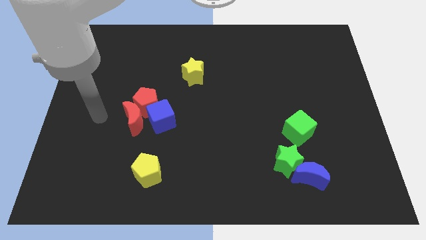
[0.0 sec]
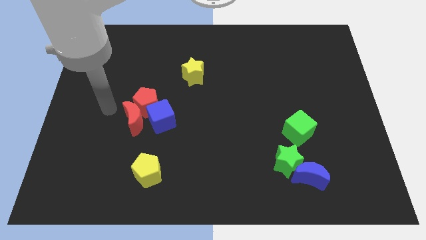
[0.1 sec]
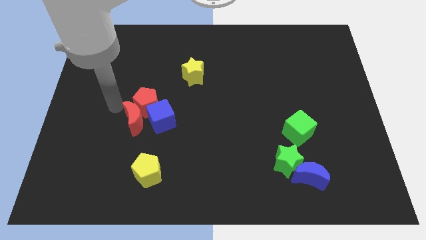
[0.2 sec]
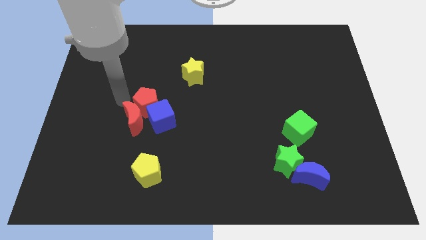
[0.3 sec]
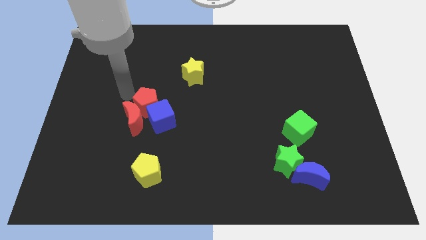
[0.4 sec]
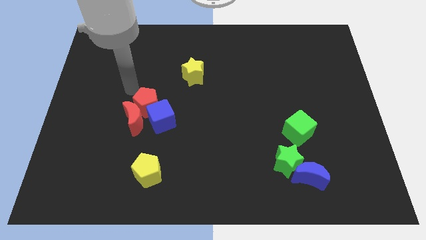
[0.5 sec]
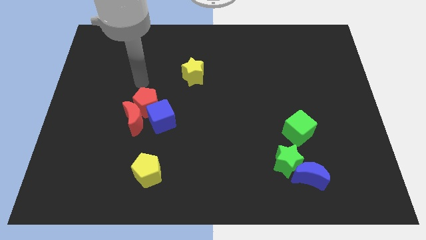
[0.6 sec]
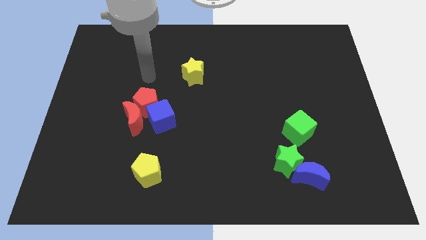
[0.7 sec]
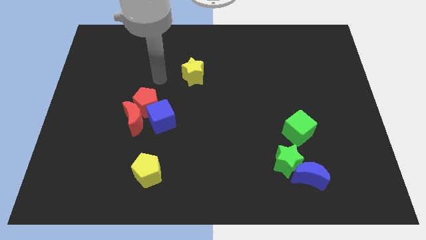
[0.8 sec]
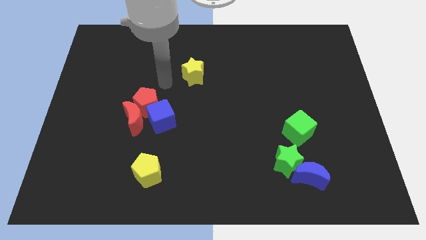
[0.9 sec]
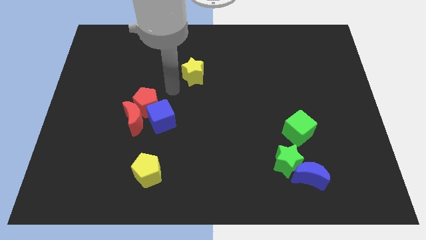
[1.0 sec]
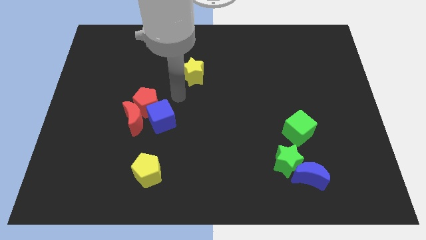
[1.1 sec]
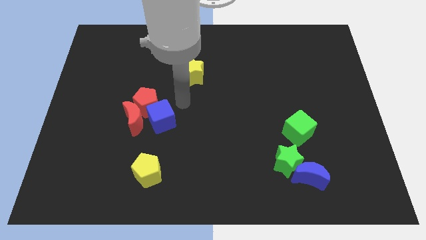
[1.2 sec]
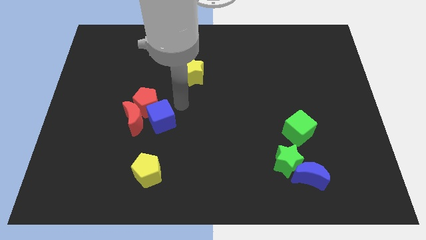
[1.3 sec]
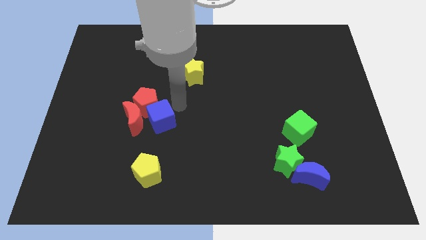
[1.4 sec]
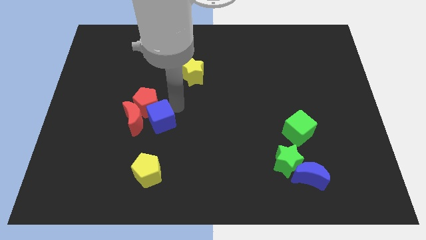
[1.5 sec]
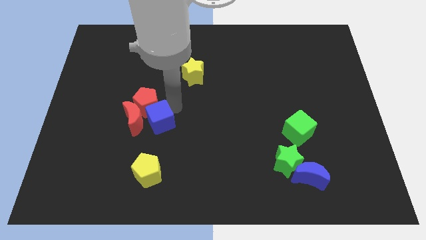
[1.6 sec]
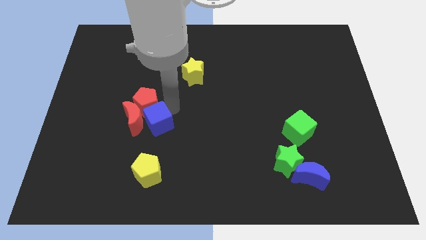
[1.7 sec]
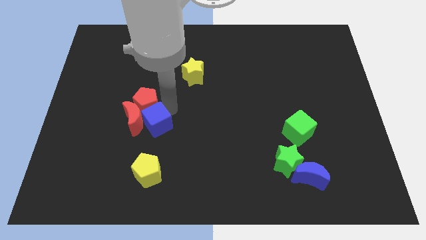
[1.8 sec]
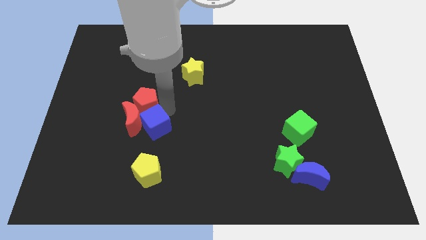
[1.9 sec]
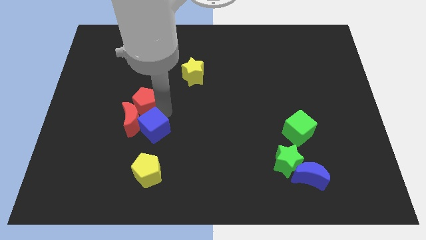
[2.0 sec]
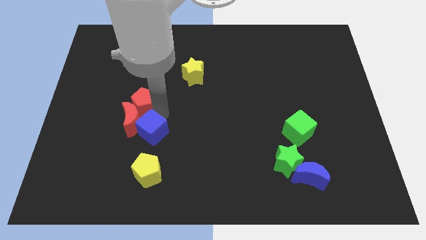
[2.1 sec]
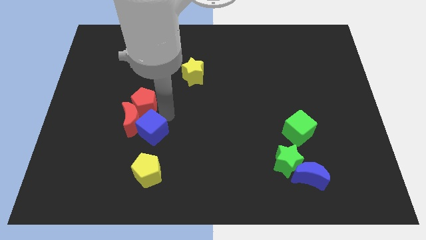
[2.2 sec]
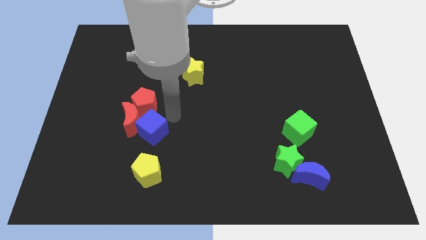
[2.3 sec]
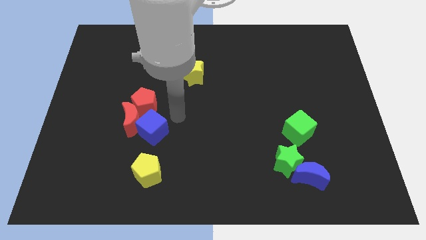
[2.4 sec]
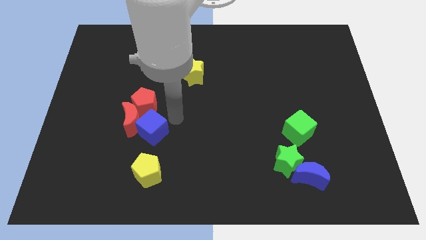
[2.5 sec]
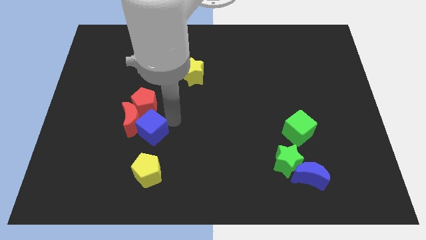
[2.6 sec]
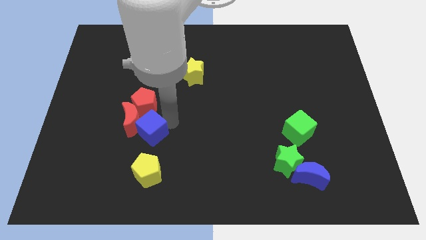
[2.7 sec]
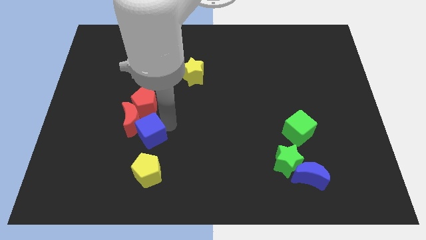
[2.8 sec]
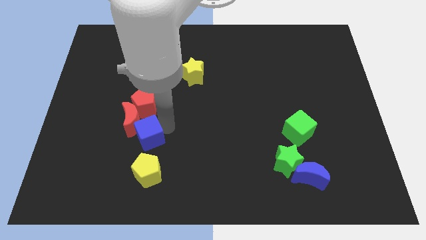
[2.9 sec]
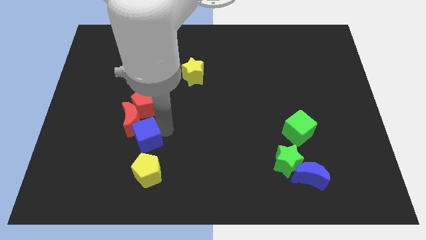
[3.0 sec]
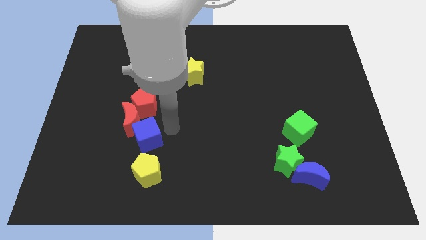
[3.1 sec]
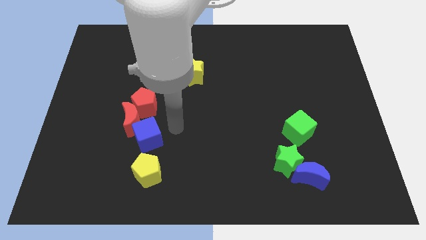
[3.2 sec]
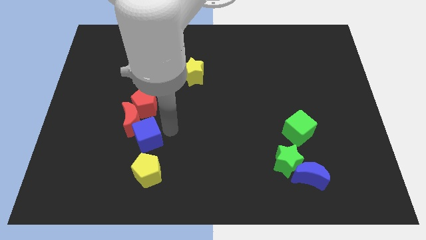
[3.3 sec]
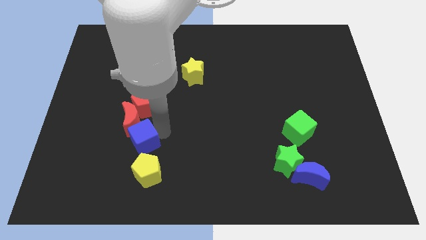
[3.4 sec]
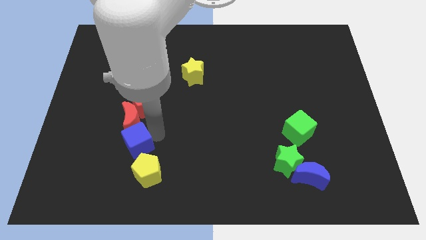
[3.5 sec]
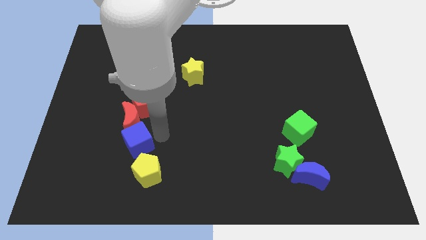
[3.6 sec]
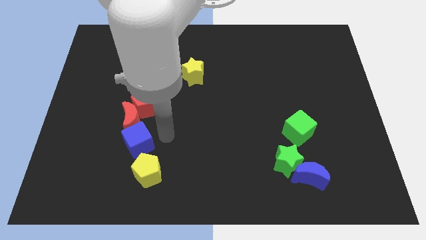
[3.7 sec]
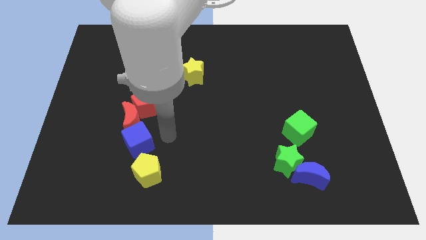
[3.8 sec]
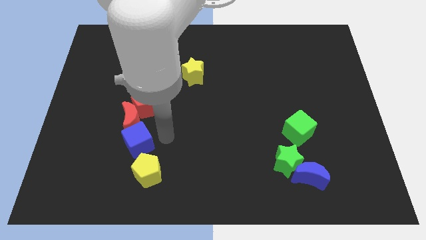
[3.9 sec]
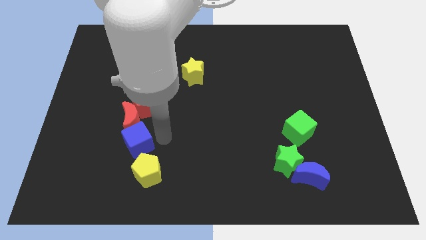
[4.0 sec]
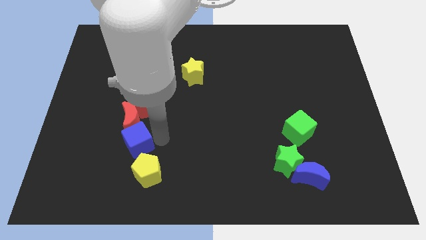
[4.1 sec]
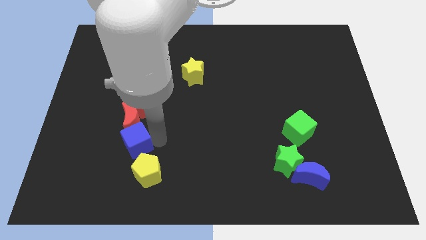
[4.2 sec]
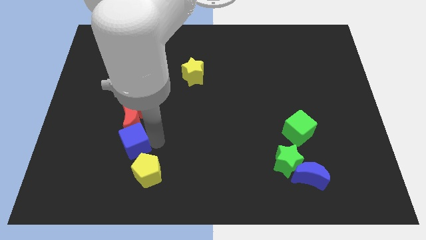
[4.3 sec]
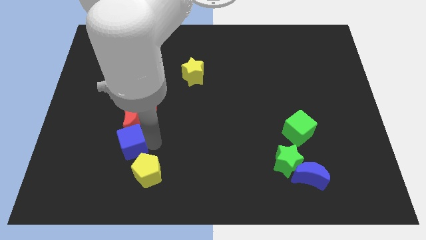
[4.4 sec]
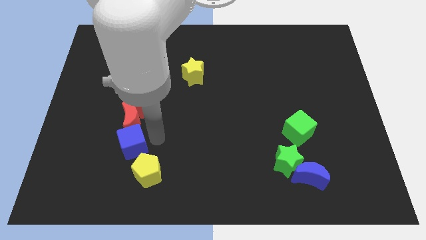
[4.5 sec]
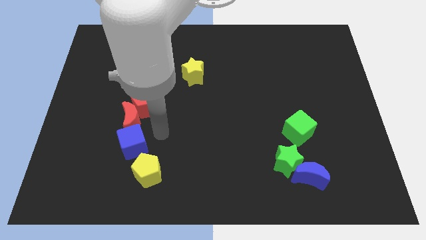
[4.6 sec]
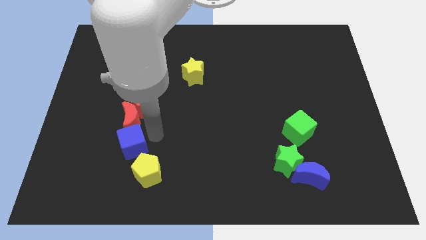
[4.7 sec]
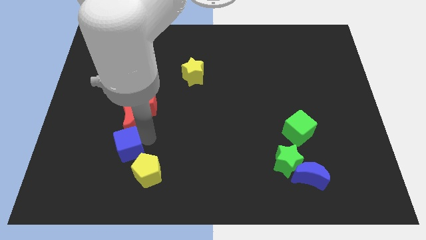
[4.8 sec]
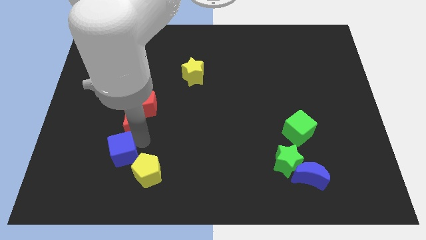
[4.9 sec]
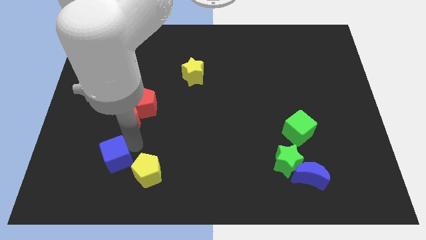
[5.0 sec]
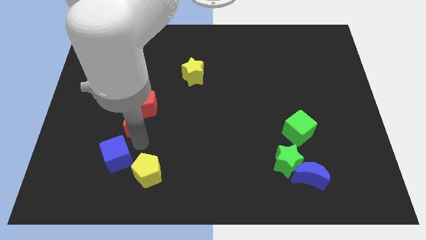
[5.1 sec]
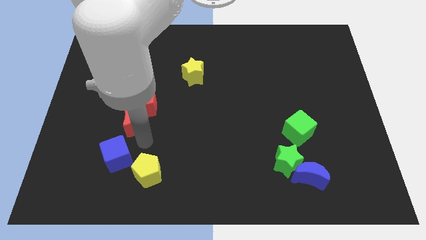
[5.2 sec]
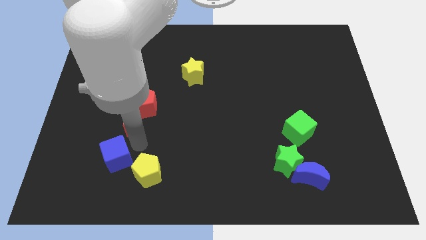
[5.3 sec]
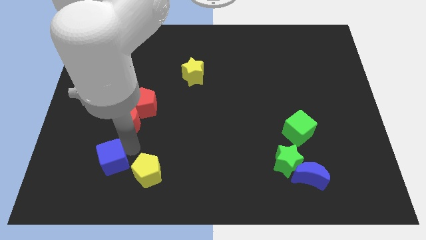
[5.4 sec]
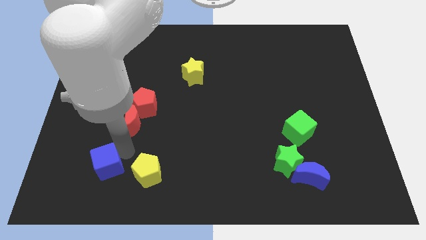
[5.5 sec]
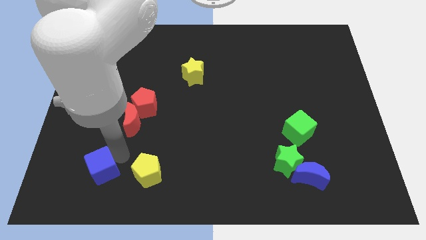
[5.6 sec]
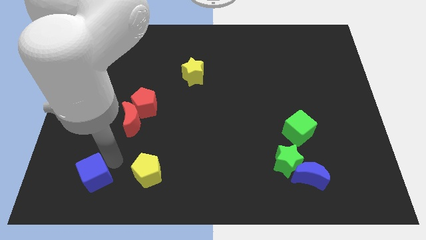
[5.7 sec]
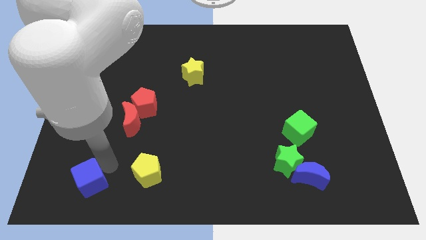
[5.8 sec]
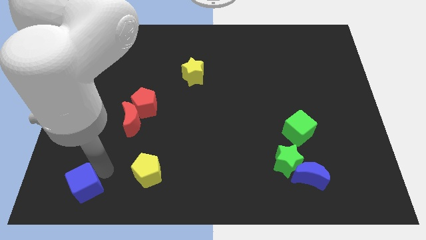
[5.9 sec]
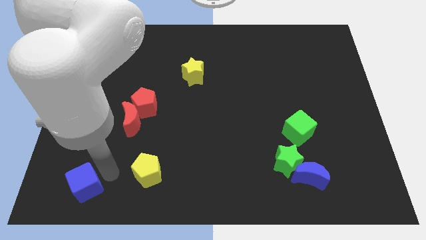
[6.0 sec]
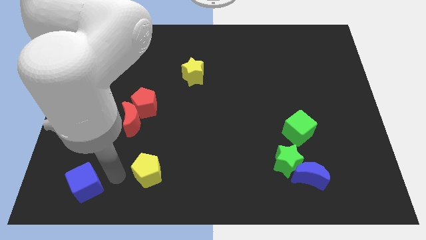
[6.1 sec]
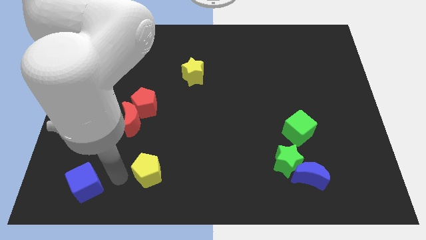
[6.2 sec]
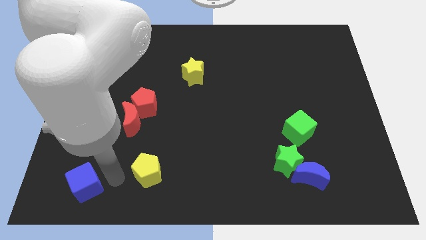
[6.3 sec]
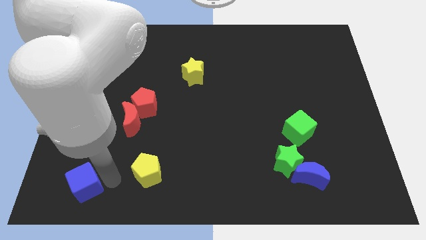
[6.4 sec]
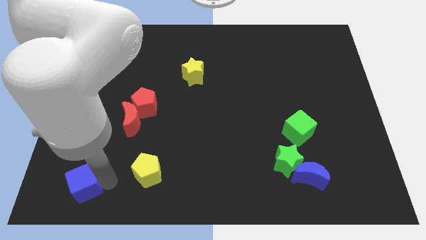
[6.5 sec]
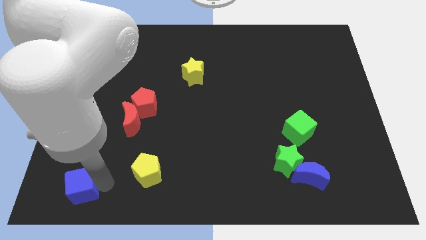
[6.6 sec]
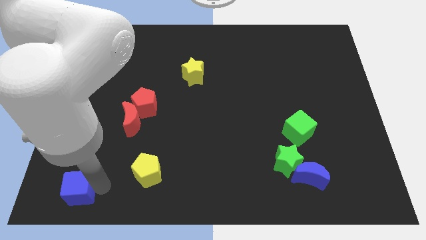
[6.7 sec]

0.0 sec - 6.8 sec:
put the blue cube to the lower left corner
